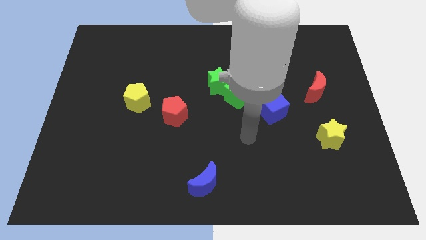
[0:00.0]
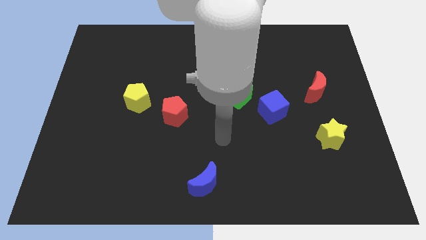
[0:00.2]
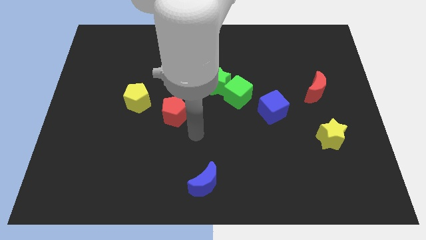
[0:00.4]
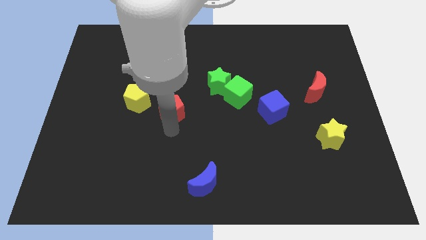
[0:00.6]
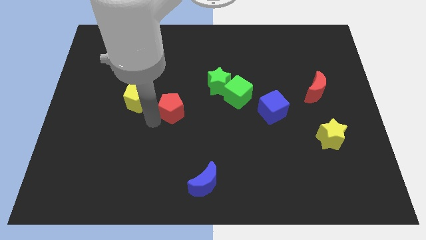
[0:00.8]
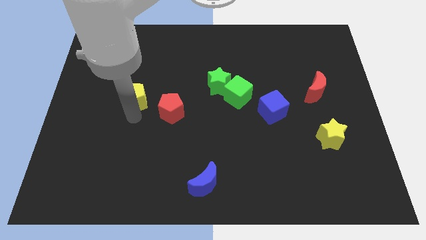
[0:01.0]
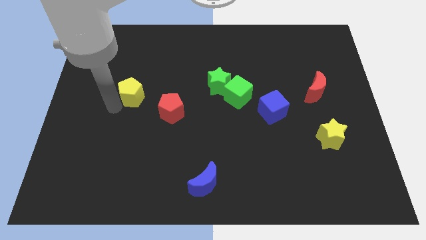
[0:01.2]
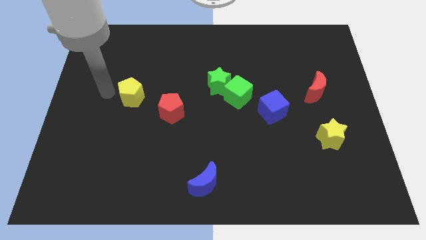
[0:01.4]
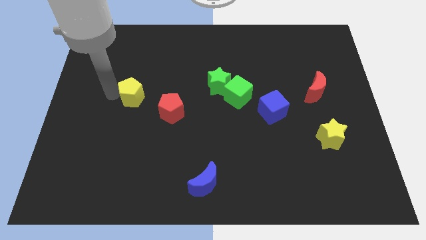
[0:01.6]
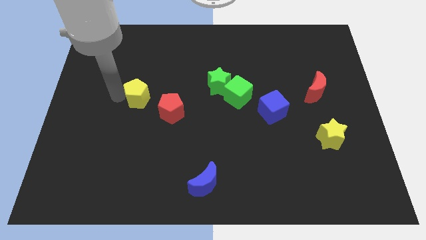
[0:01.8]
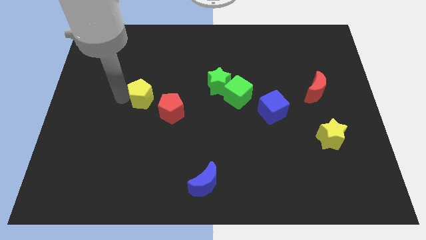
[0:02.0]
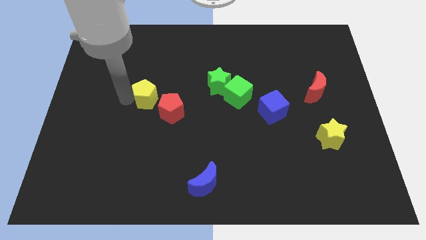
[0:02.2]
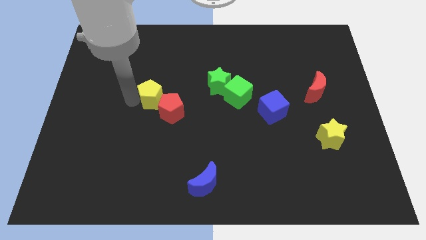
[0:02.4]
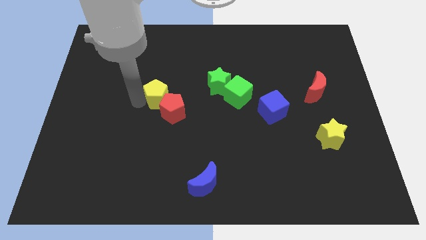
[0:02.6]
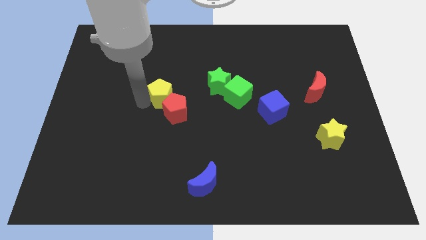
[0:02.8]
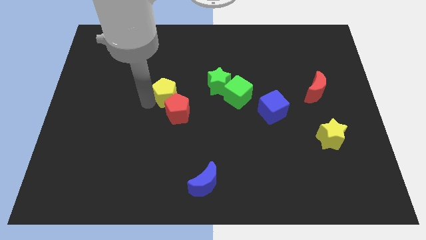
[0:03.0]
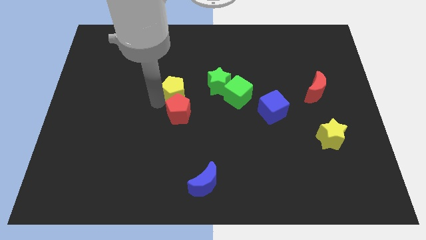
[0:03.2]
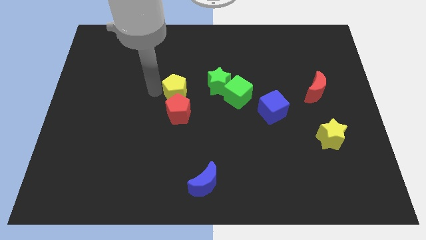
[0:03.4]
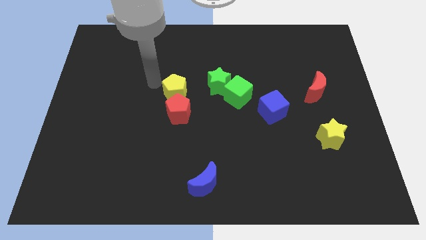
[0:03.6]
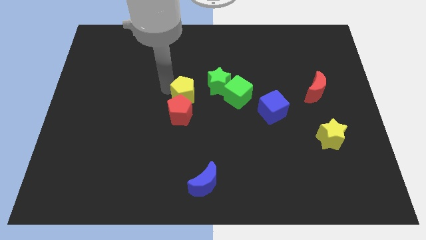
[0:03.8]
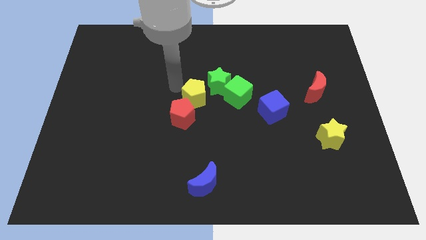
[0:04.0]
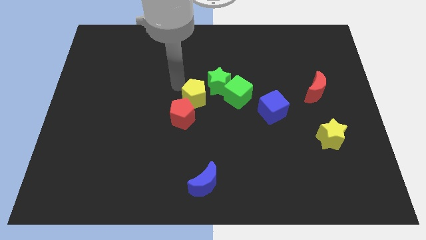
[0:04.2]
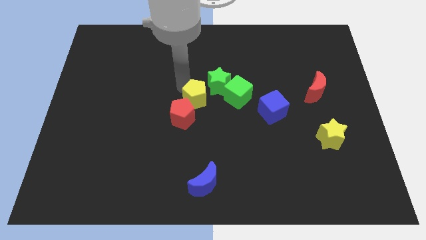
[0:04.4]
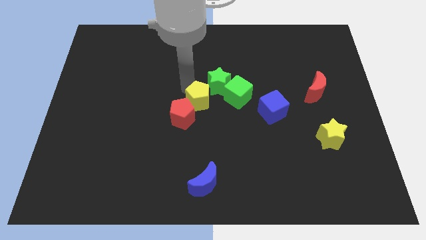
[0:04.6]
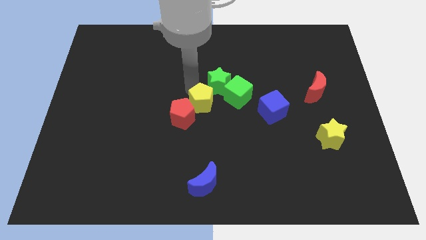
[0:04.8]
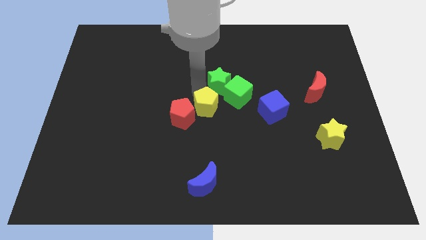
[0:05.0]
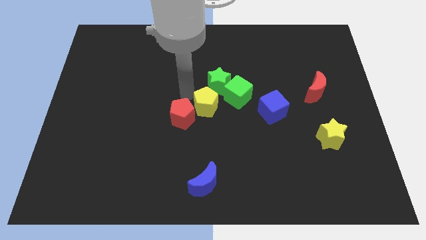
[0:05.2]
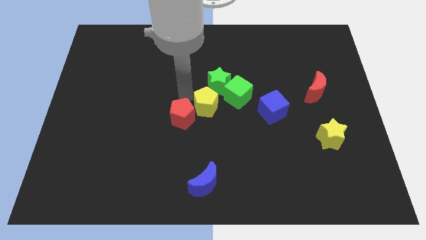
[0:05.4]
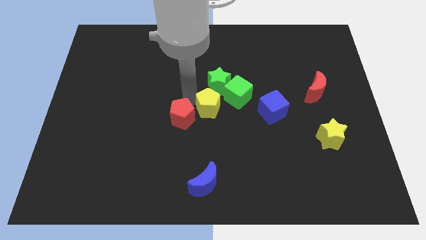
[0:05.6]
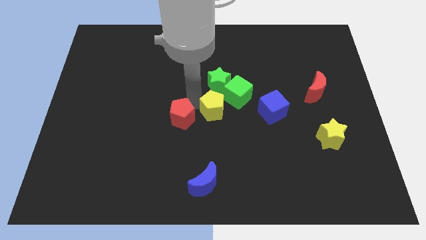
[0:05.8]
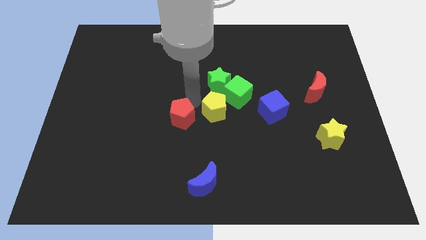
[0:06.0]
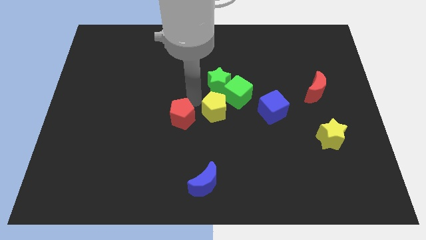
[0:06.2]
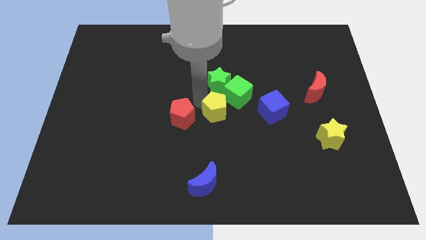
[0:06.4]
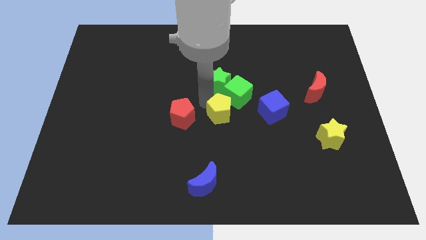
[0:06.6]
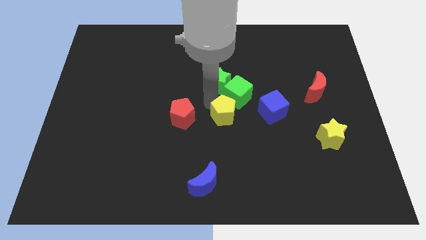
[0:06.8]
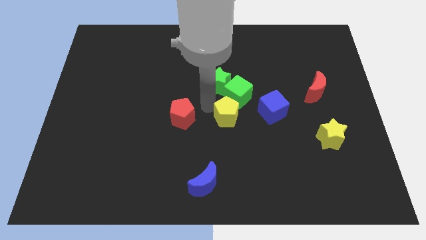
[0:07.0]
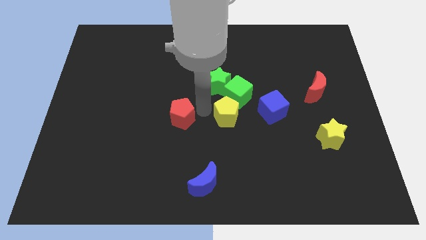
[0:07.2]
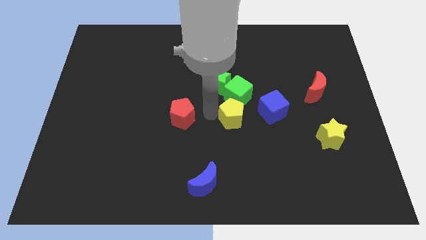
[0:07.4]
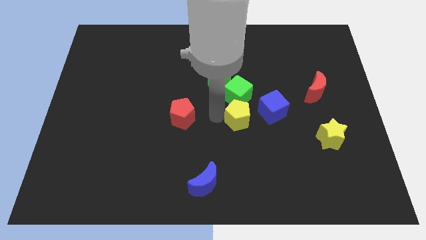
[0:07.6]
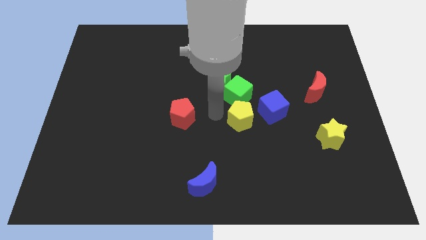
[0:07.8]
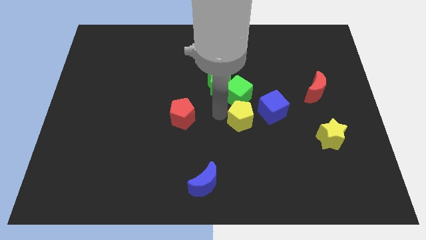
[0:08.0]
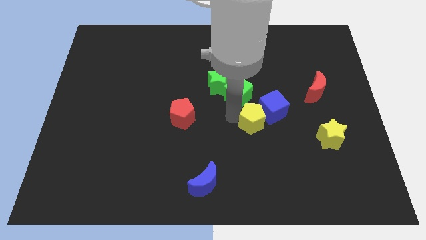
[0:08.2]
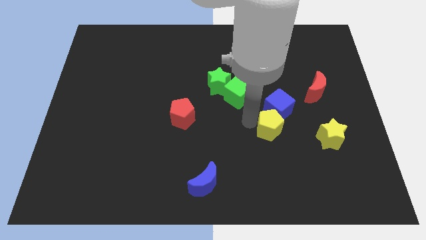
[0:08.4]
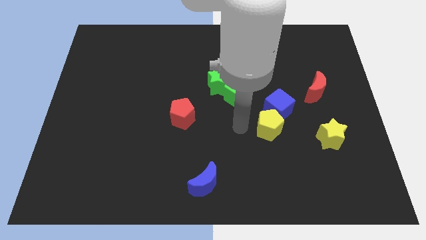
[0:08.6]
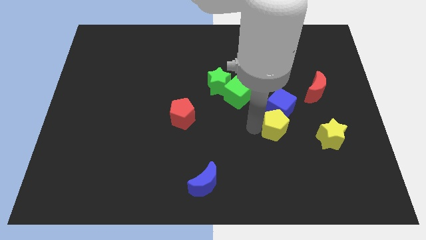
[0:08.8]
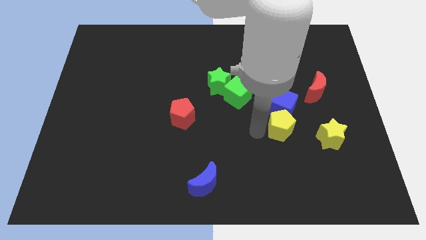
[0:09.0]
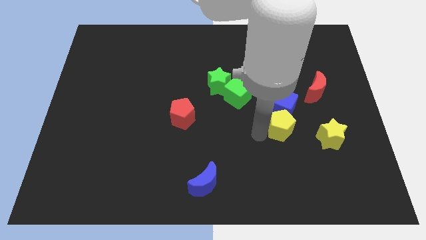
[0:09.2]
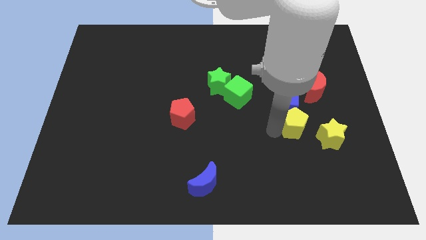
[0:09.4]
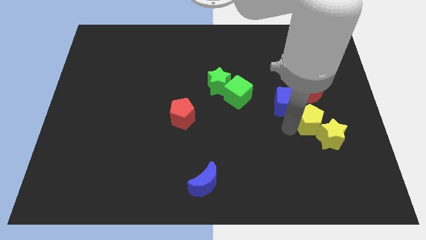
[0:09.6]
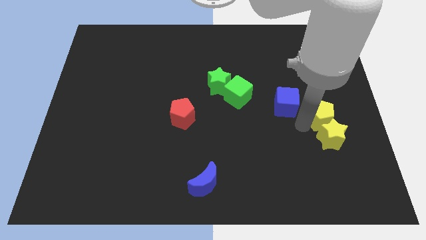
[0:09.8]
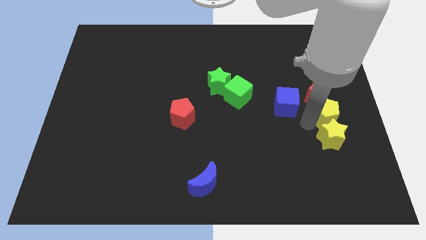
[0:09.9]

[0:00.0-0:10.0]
slide the yellow pentagon to the right side

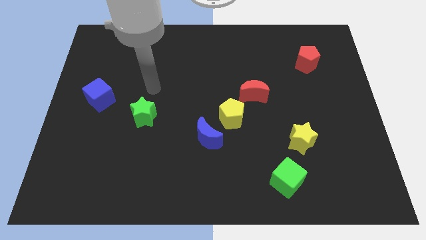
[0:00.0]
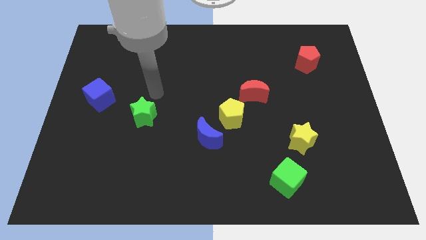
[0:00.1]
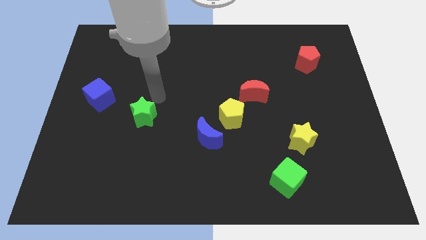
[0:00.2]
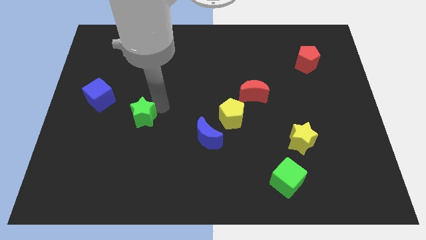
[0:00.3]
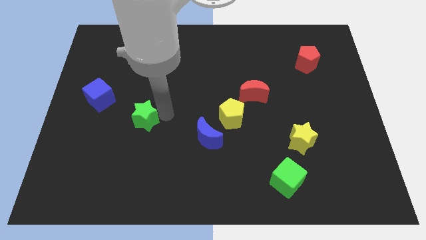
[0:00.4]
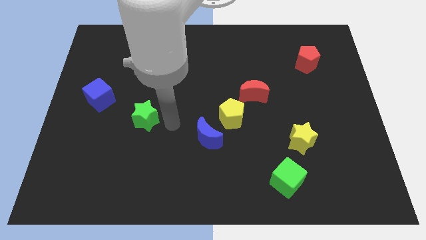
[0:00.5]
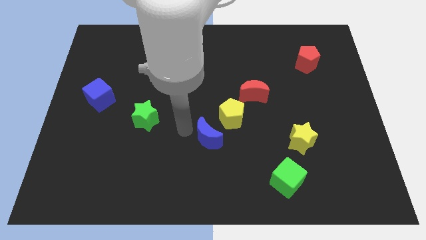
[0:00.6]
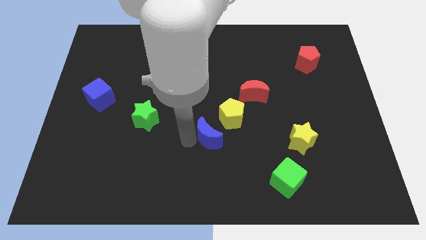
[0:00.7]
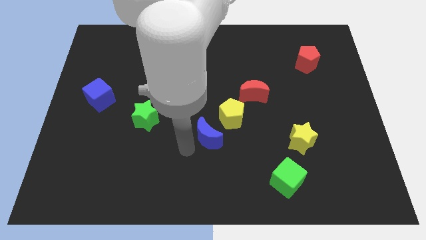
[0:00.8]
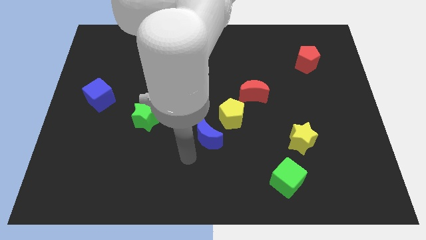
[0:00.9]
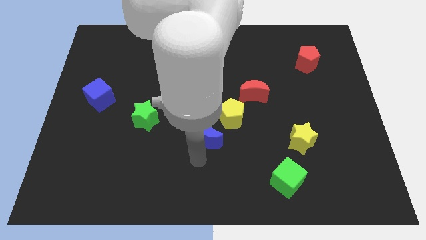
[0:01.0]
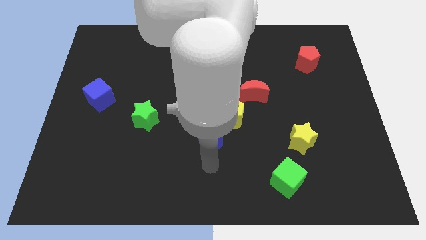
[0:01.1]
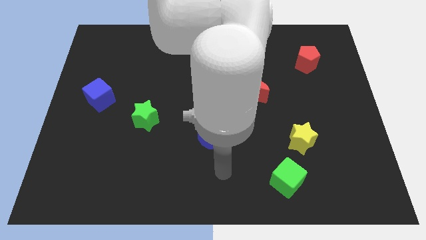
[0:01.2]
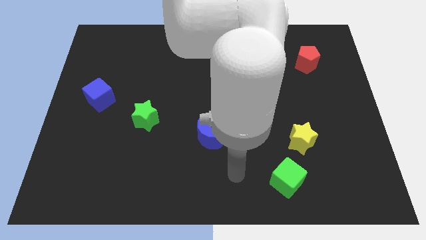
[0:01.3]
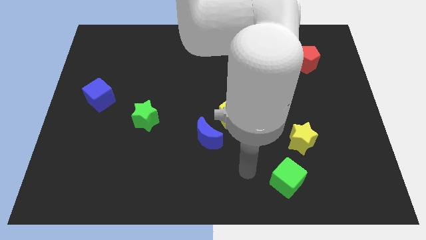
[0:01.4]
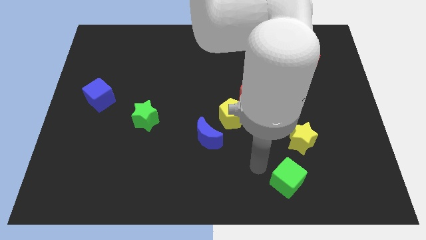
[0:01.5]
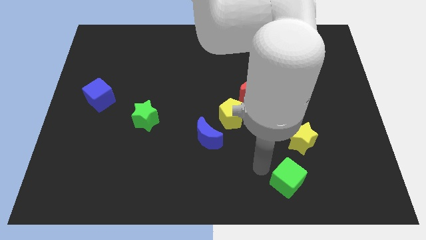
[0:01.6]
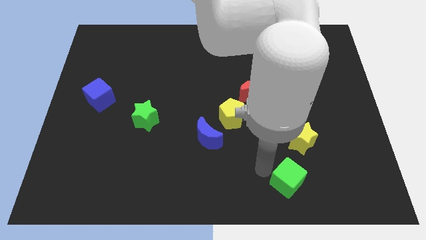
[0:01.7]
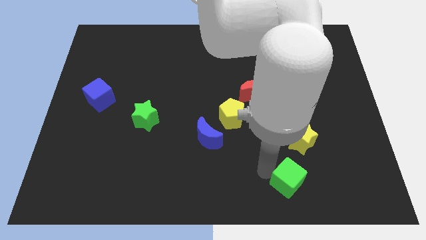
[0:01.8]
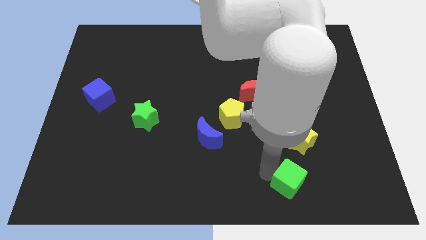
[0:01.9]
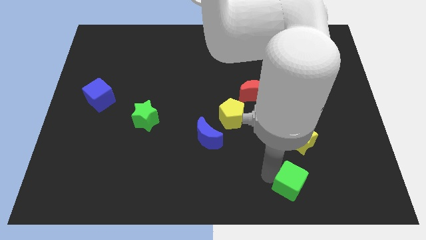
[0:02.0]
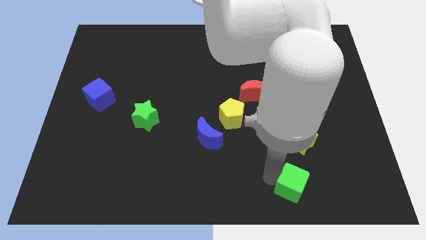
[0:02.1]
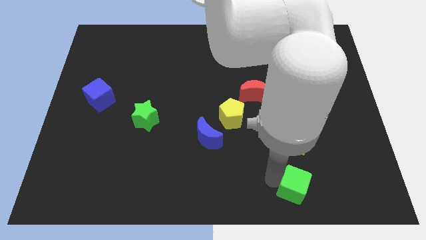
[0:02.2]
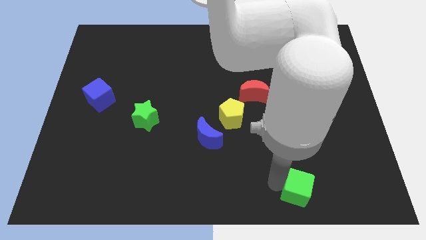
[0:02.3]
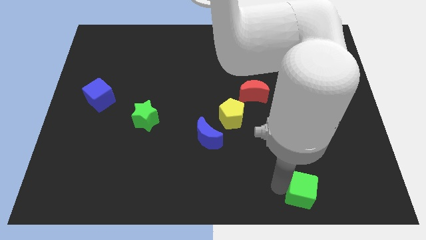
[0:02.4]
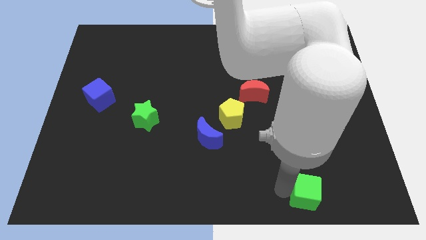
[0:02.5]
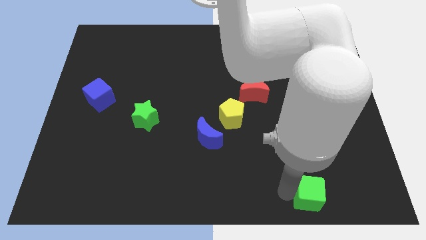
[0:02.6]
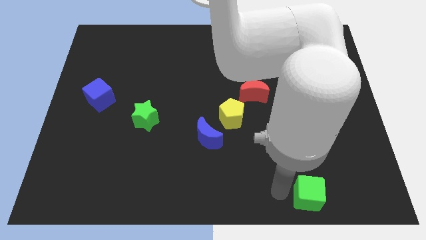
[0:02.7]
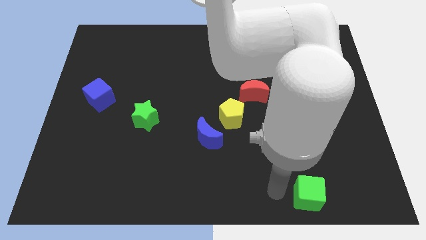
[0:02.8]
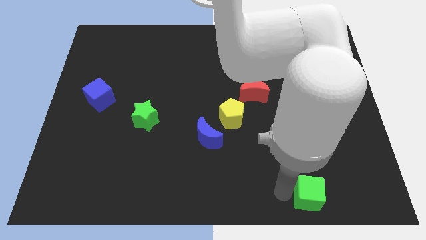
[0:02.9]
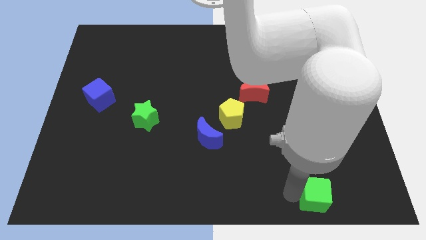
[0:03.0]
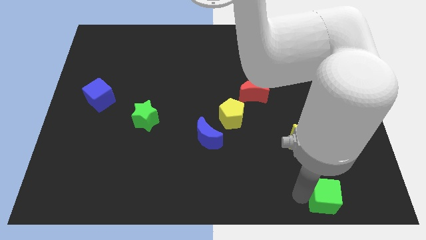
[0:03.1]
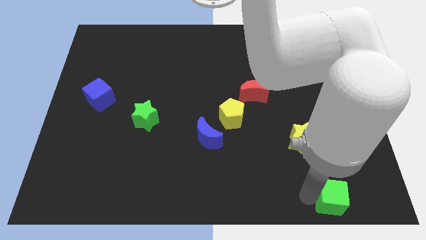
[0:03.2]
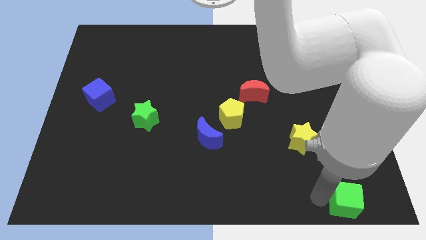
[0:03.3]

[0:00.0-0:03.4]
push the green cube to the lower right corner
